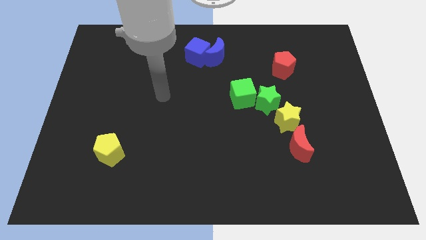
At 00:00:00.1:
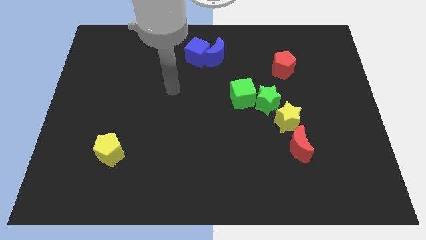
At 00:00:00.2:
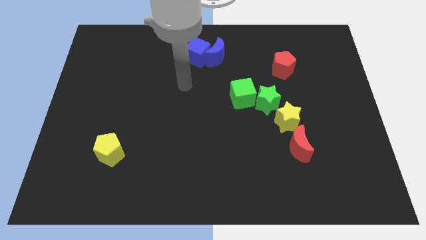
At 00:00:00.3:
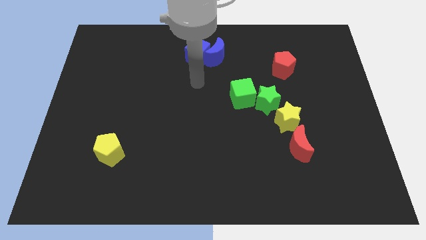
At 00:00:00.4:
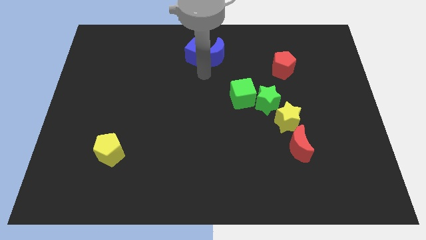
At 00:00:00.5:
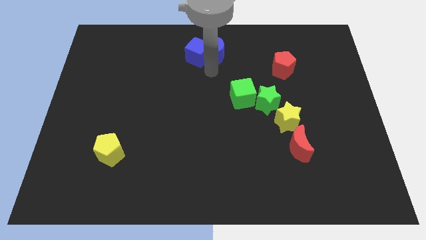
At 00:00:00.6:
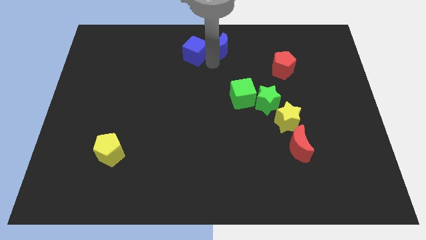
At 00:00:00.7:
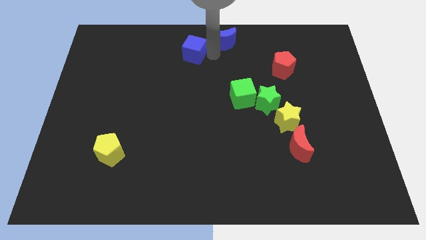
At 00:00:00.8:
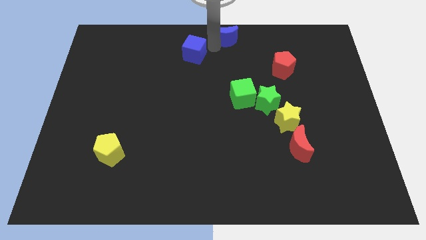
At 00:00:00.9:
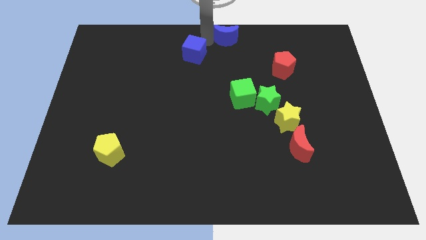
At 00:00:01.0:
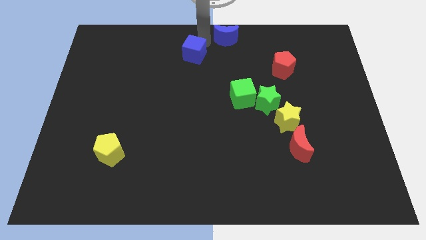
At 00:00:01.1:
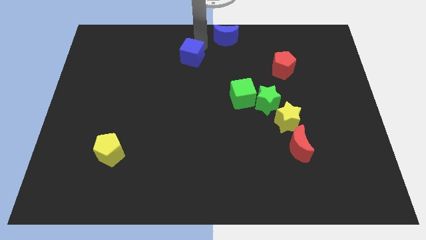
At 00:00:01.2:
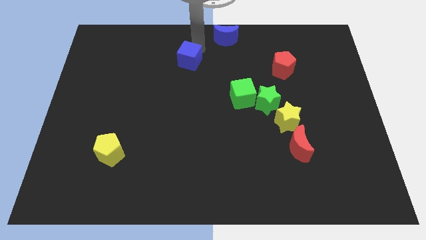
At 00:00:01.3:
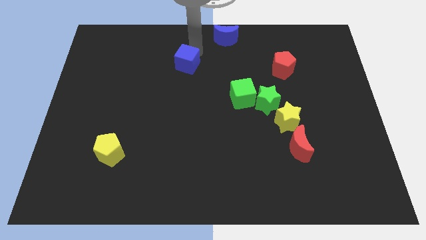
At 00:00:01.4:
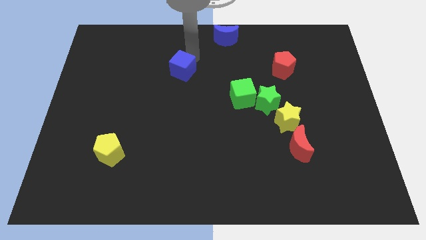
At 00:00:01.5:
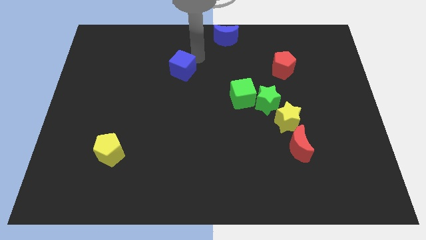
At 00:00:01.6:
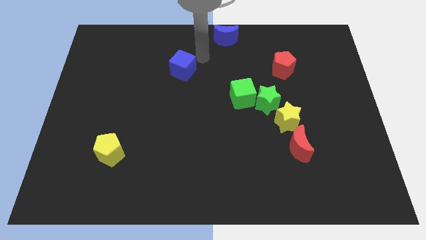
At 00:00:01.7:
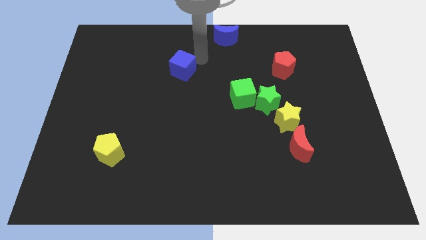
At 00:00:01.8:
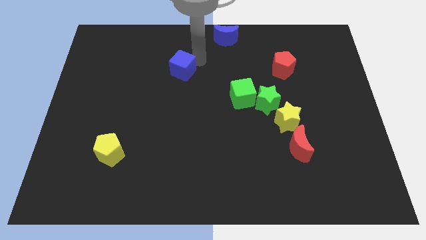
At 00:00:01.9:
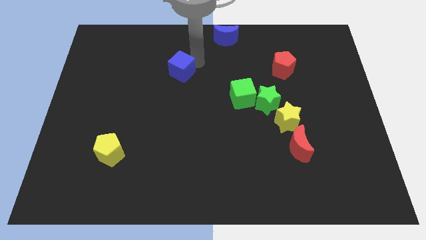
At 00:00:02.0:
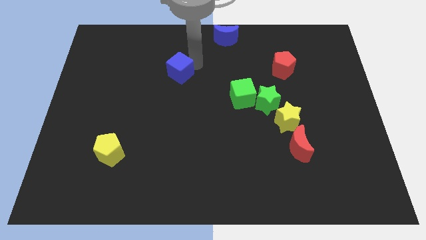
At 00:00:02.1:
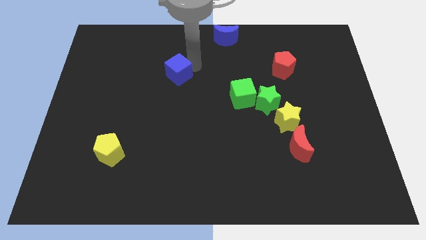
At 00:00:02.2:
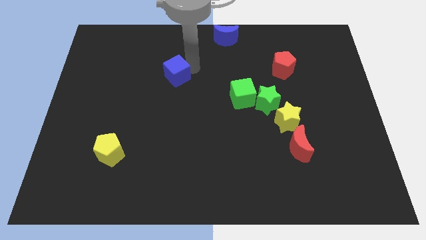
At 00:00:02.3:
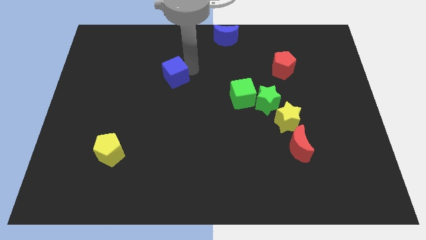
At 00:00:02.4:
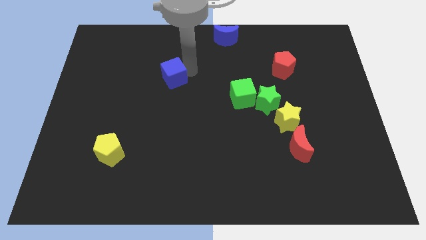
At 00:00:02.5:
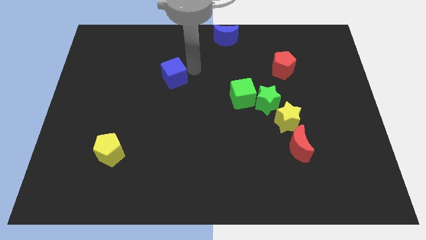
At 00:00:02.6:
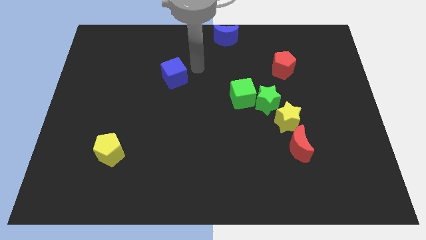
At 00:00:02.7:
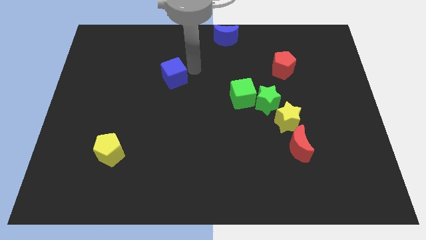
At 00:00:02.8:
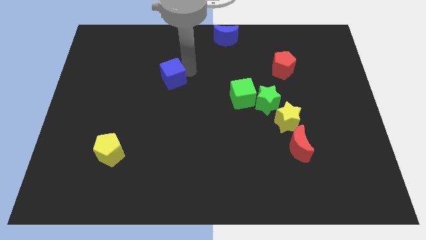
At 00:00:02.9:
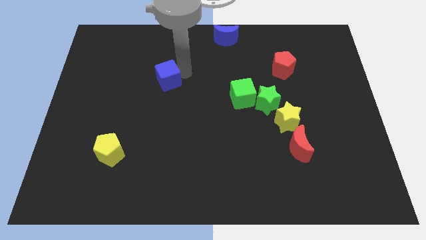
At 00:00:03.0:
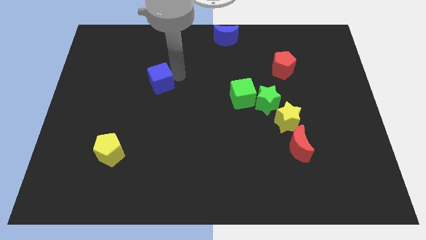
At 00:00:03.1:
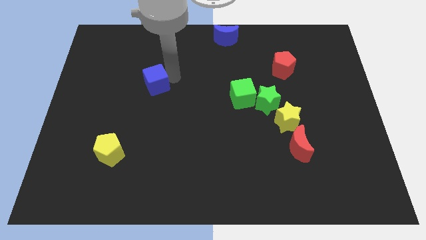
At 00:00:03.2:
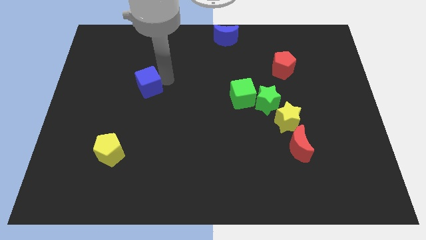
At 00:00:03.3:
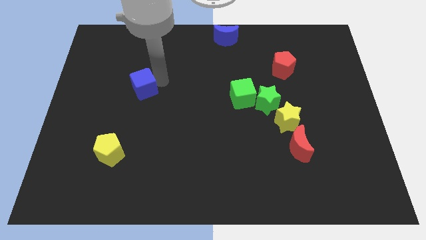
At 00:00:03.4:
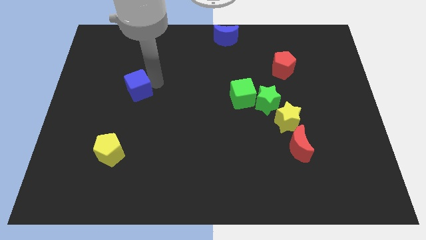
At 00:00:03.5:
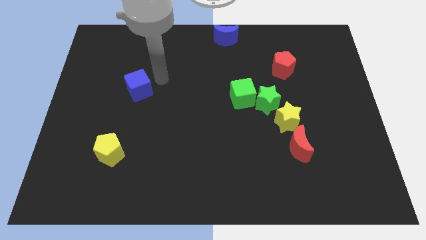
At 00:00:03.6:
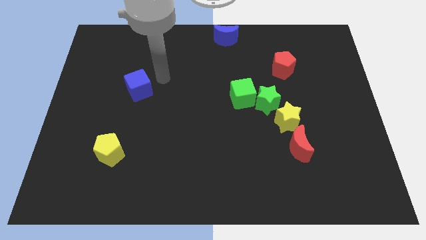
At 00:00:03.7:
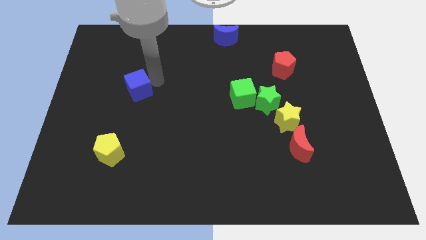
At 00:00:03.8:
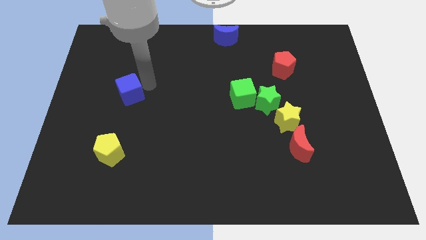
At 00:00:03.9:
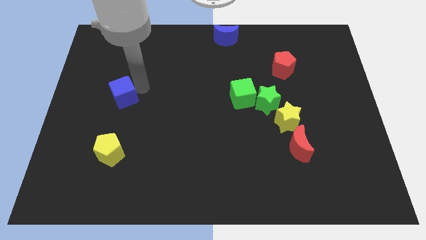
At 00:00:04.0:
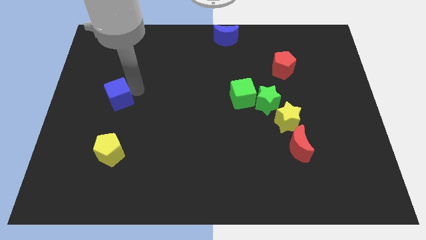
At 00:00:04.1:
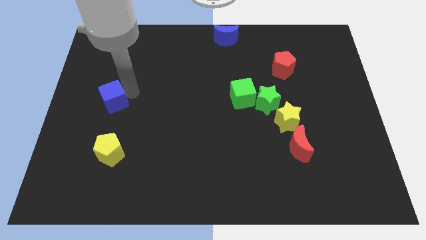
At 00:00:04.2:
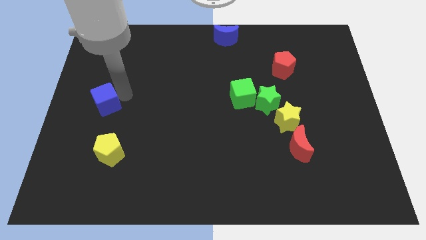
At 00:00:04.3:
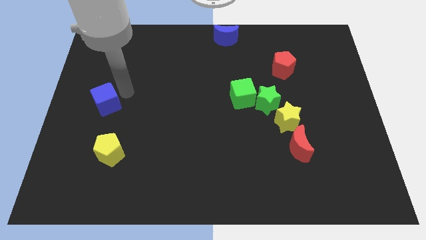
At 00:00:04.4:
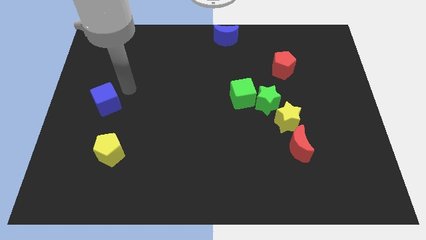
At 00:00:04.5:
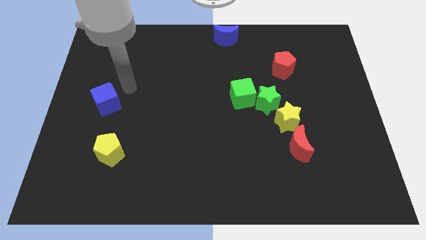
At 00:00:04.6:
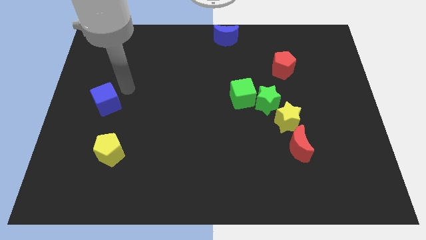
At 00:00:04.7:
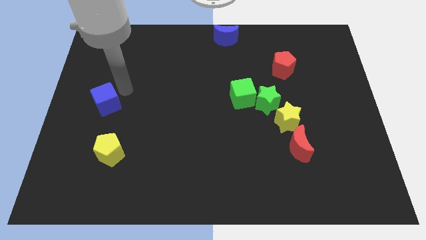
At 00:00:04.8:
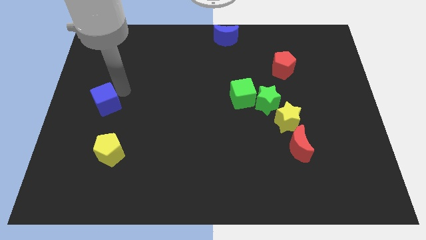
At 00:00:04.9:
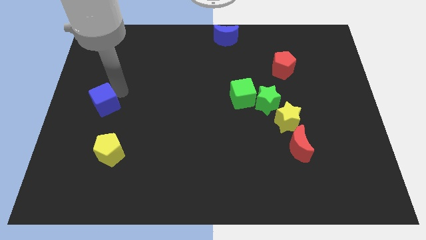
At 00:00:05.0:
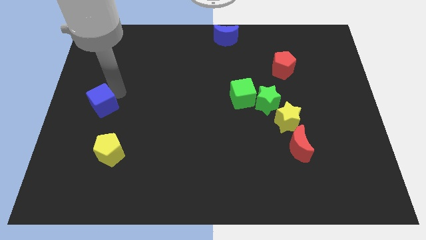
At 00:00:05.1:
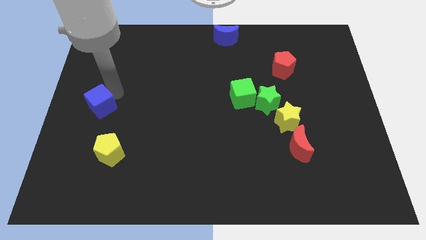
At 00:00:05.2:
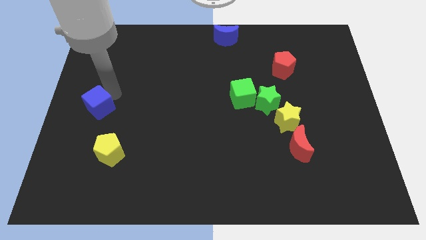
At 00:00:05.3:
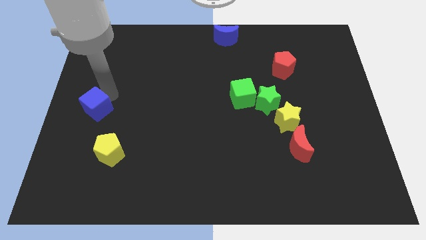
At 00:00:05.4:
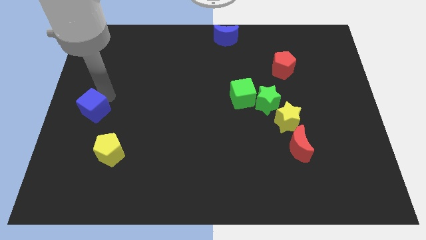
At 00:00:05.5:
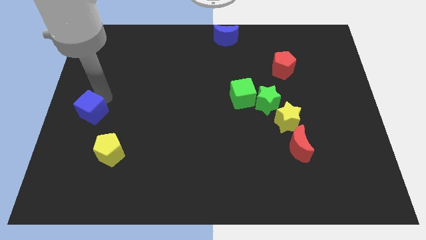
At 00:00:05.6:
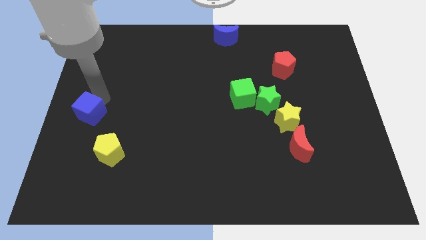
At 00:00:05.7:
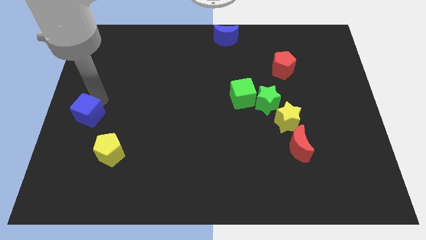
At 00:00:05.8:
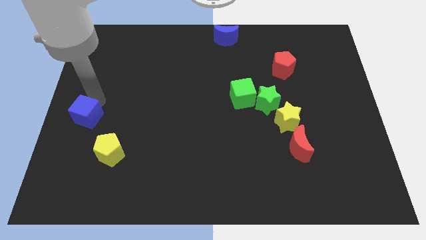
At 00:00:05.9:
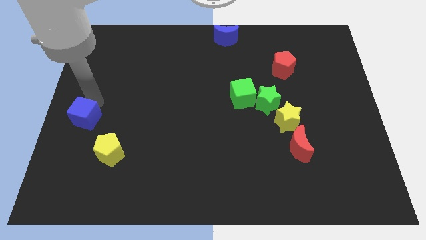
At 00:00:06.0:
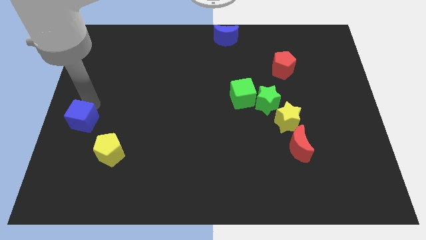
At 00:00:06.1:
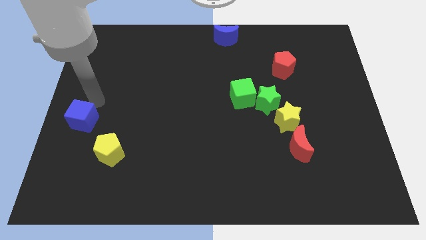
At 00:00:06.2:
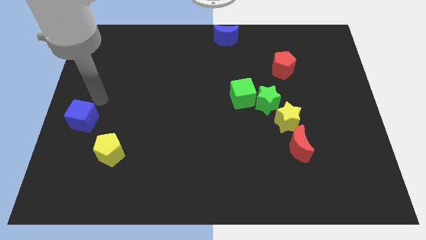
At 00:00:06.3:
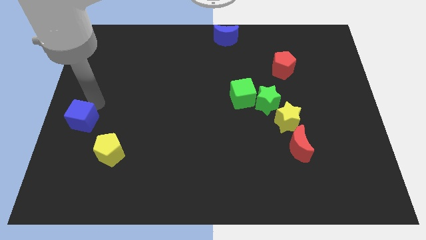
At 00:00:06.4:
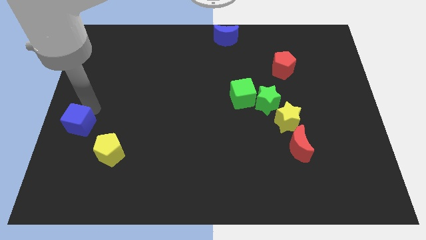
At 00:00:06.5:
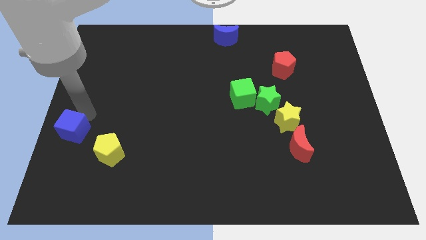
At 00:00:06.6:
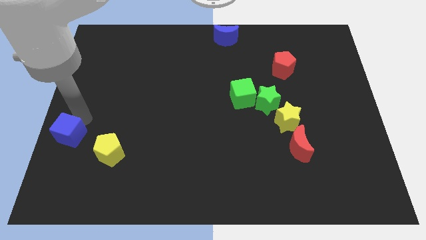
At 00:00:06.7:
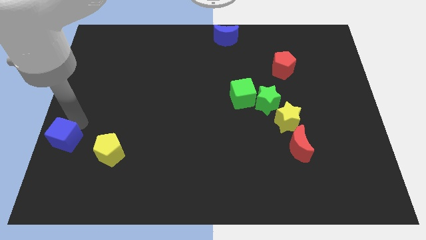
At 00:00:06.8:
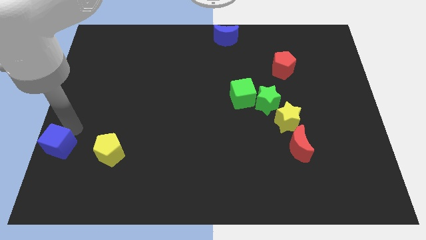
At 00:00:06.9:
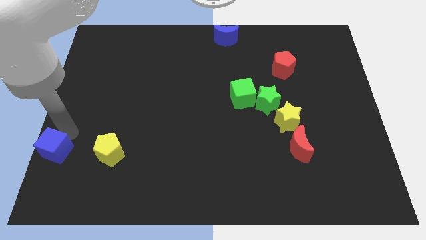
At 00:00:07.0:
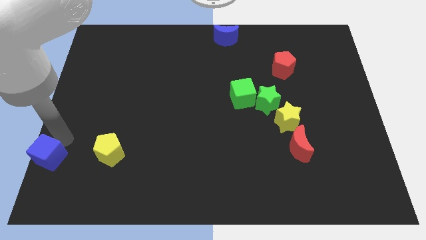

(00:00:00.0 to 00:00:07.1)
push the blue cube to the bottom left of the board

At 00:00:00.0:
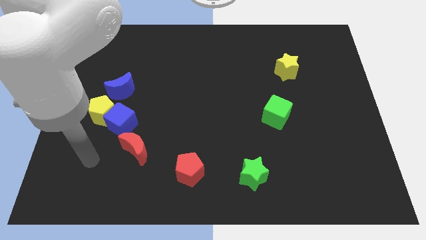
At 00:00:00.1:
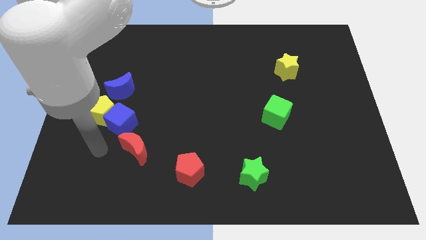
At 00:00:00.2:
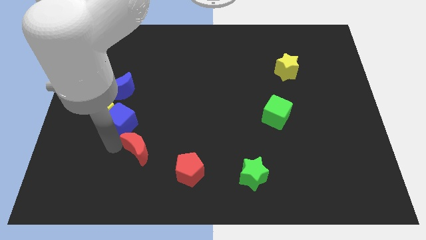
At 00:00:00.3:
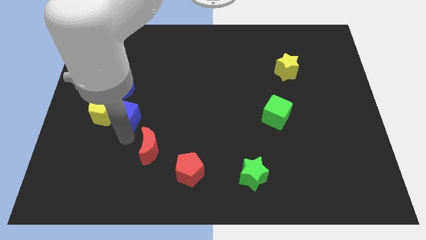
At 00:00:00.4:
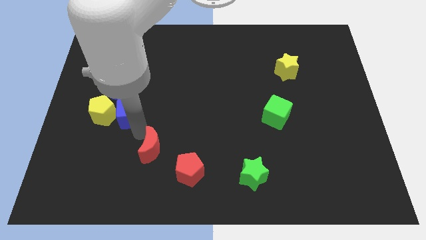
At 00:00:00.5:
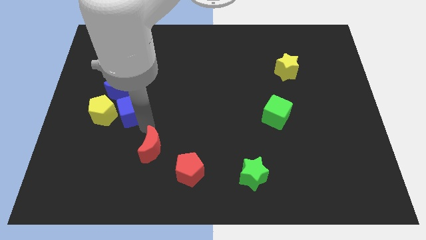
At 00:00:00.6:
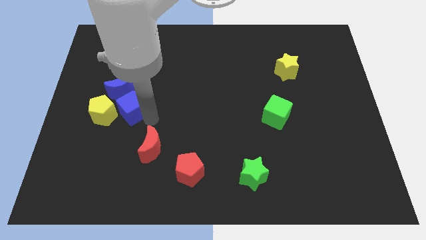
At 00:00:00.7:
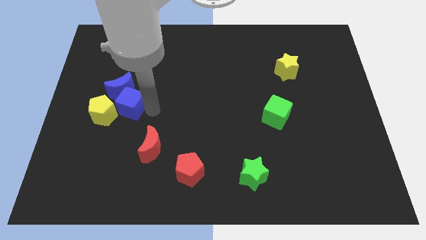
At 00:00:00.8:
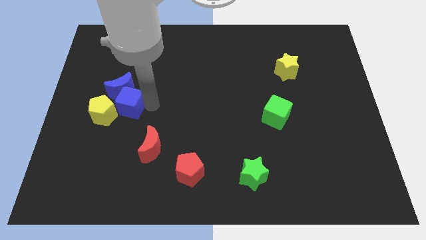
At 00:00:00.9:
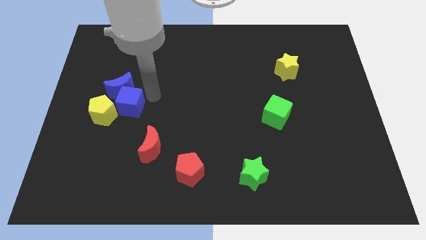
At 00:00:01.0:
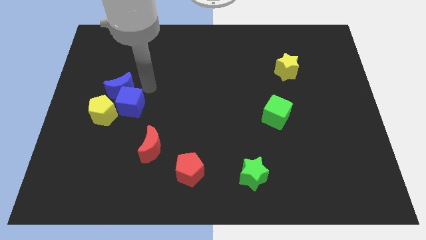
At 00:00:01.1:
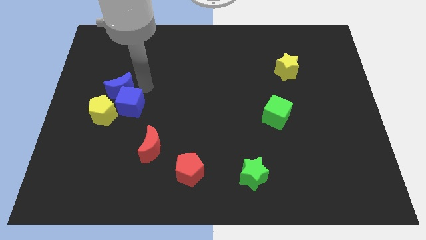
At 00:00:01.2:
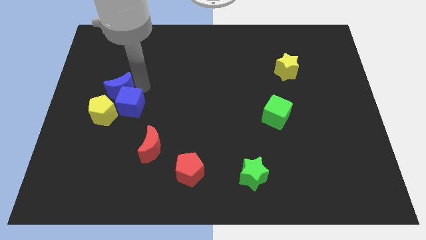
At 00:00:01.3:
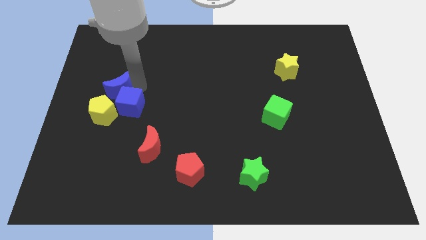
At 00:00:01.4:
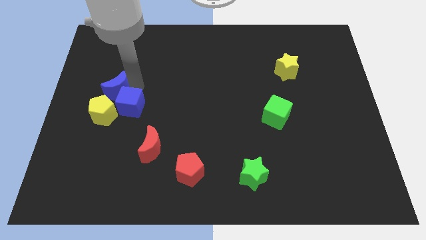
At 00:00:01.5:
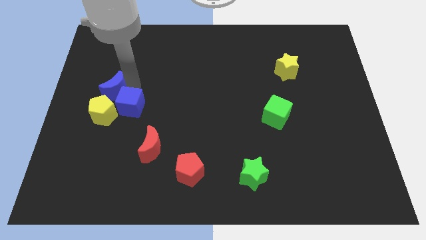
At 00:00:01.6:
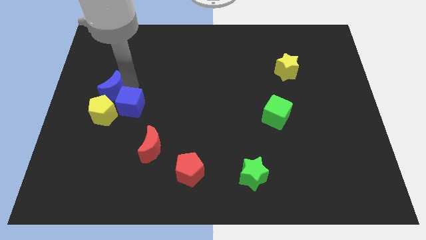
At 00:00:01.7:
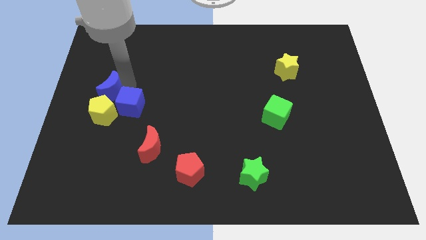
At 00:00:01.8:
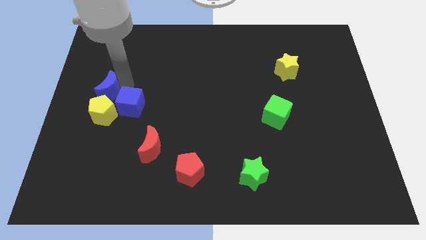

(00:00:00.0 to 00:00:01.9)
put the blue moon to the left side
